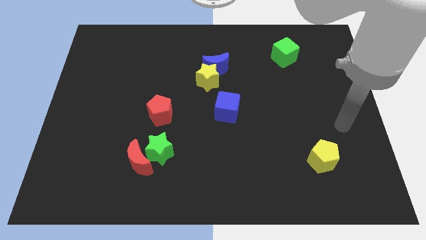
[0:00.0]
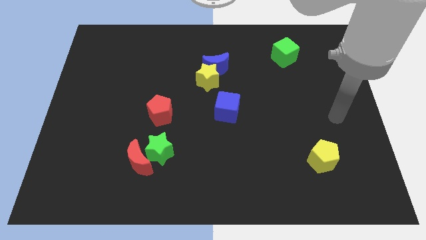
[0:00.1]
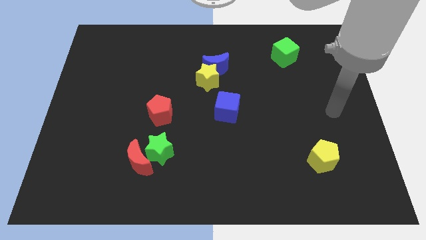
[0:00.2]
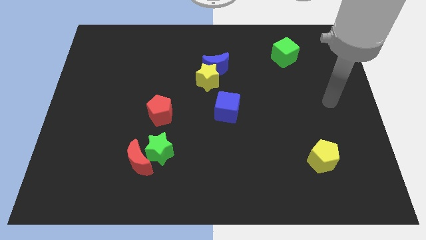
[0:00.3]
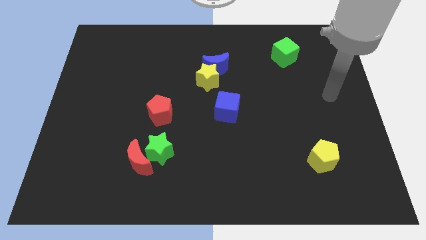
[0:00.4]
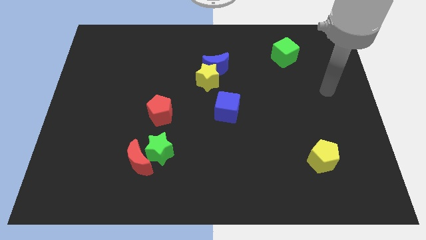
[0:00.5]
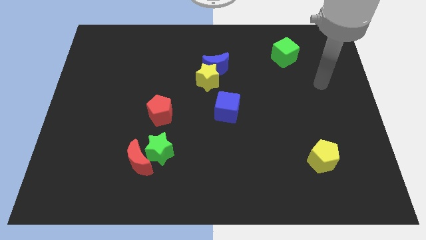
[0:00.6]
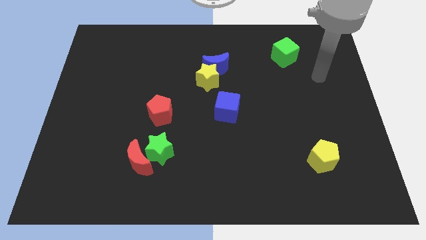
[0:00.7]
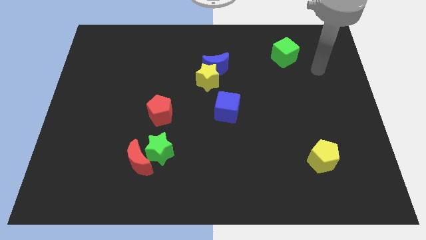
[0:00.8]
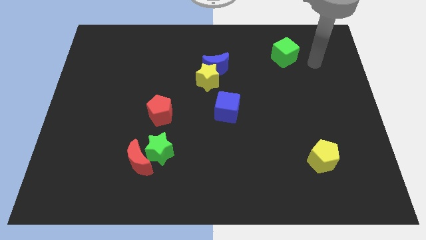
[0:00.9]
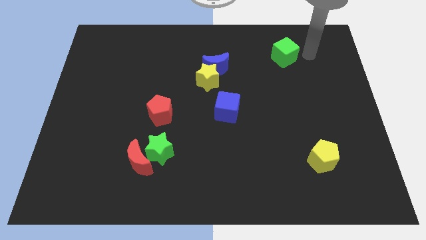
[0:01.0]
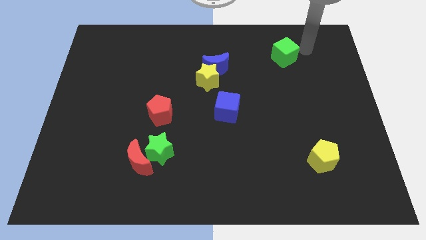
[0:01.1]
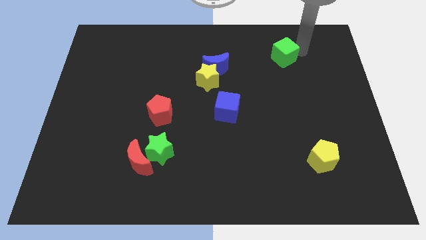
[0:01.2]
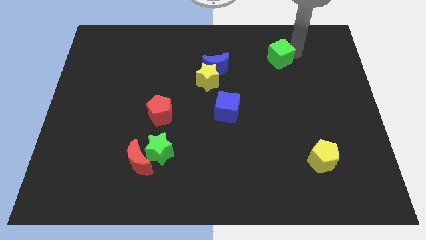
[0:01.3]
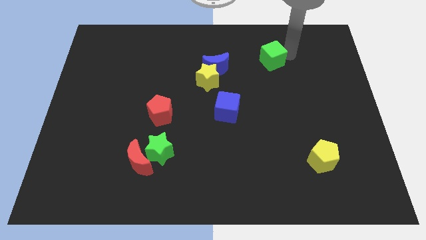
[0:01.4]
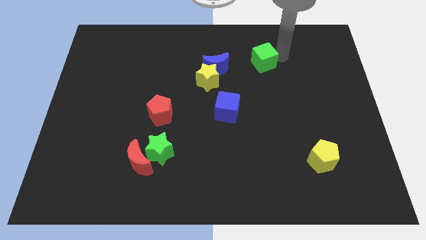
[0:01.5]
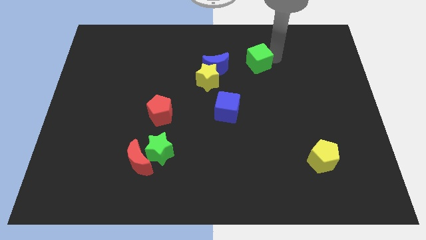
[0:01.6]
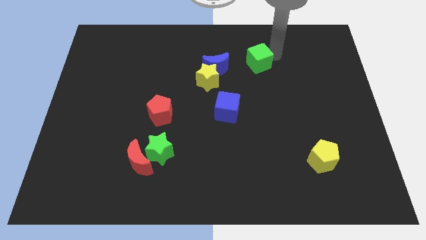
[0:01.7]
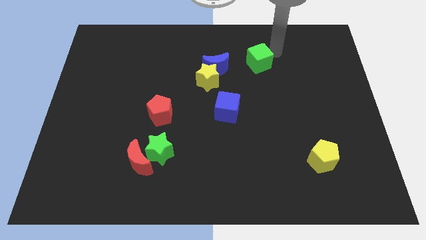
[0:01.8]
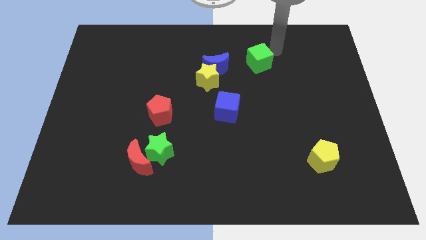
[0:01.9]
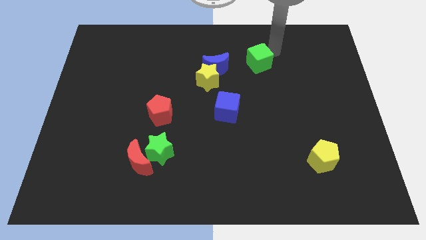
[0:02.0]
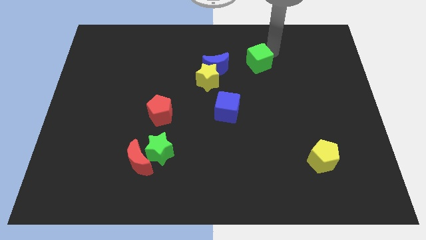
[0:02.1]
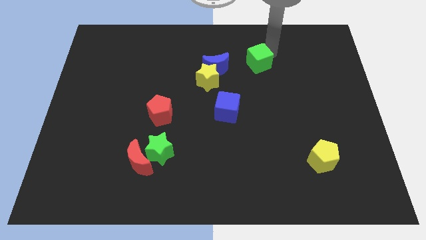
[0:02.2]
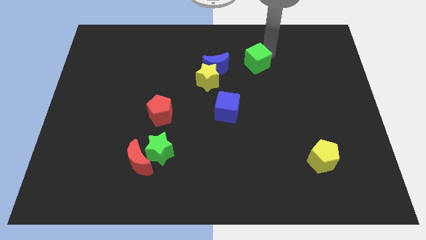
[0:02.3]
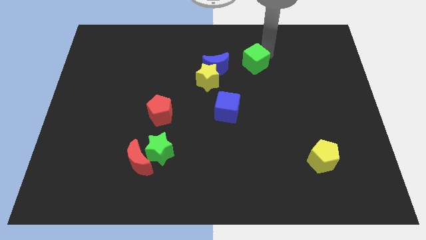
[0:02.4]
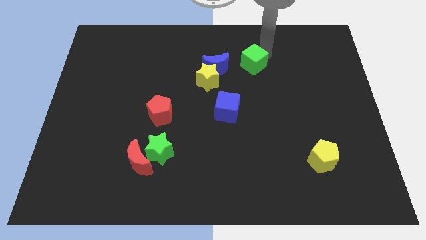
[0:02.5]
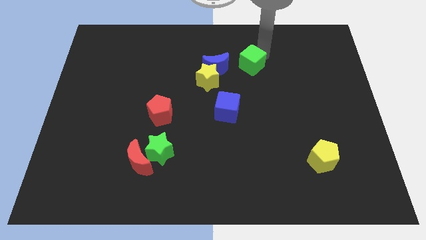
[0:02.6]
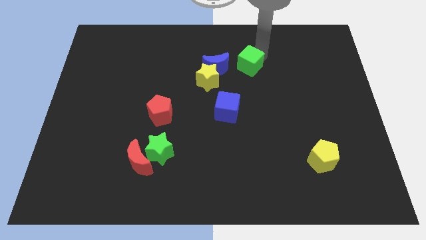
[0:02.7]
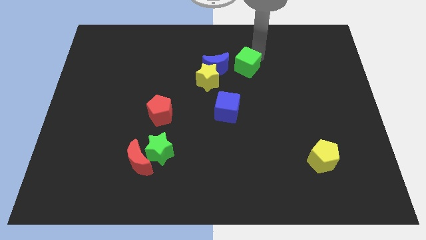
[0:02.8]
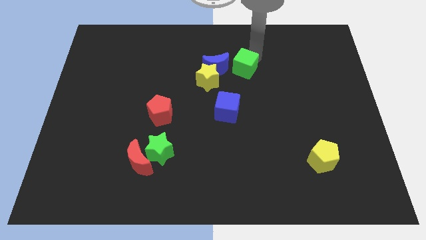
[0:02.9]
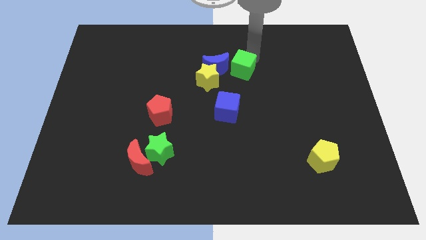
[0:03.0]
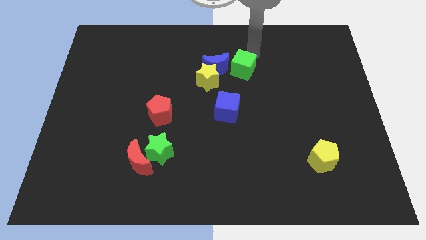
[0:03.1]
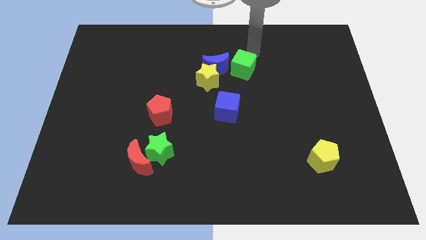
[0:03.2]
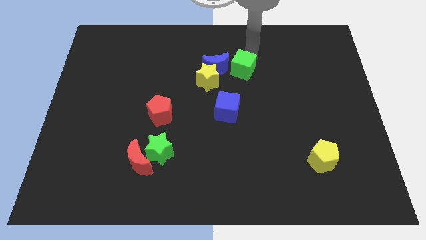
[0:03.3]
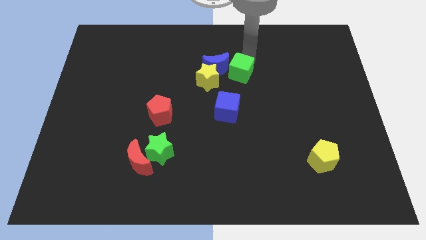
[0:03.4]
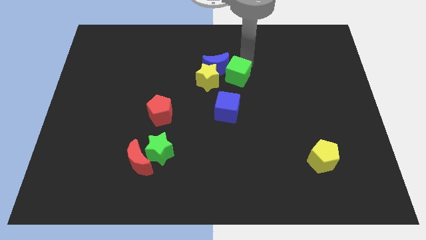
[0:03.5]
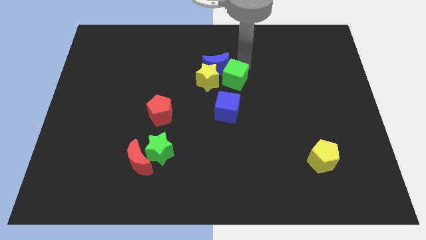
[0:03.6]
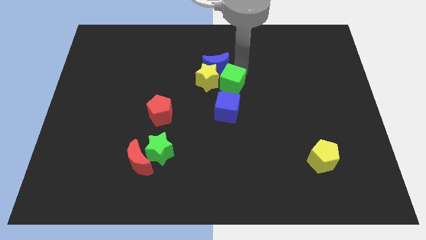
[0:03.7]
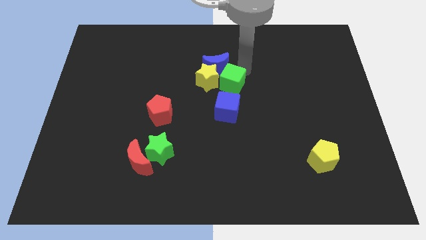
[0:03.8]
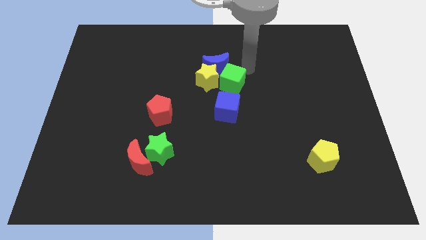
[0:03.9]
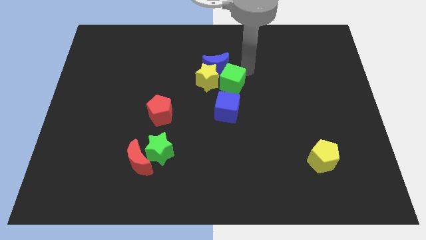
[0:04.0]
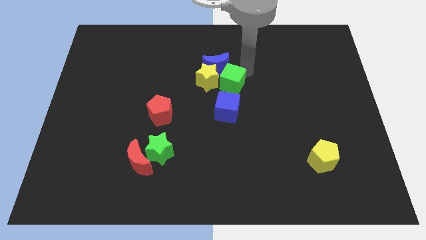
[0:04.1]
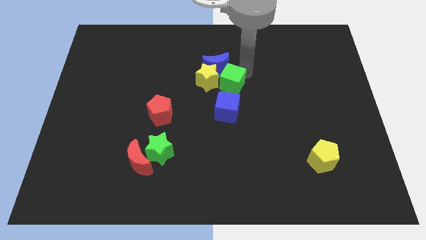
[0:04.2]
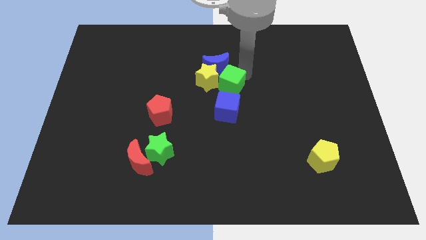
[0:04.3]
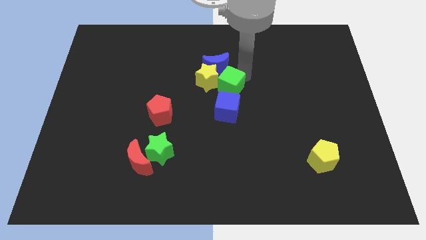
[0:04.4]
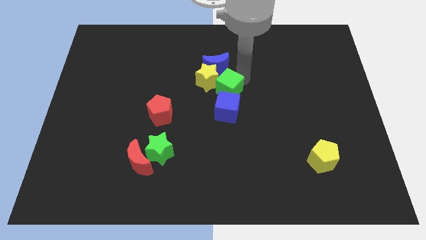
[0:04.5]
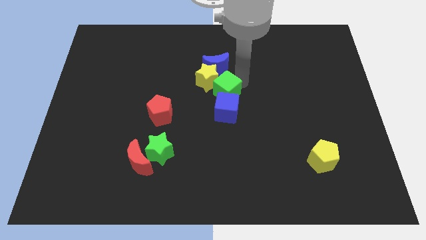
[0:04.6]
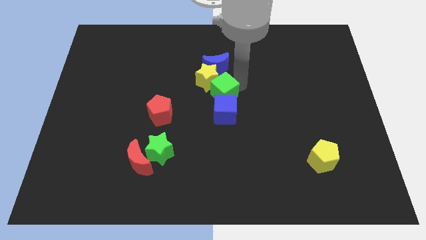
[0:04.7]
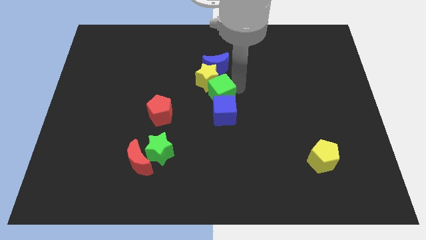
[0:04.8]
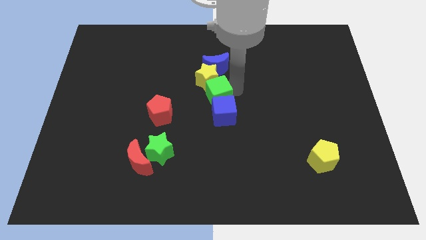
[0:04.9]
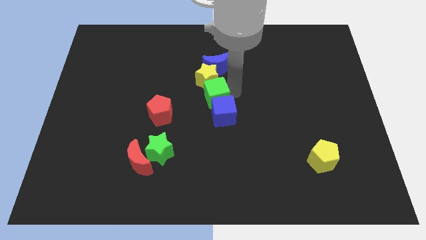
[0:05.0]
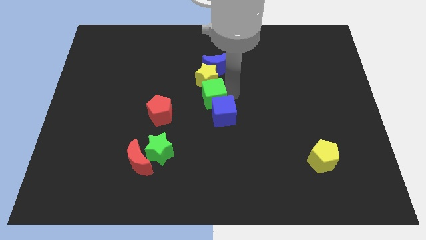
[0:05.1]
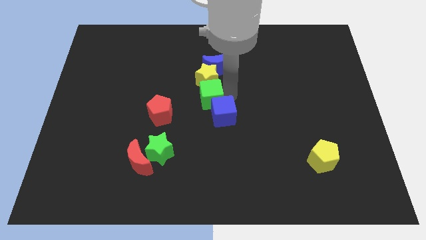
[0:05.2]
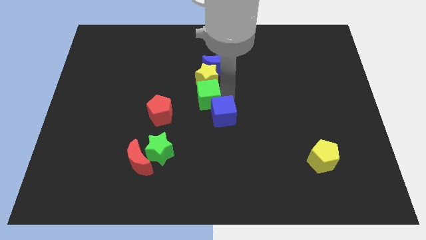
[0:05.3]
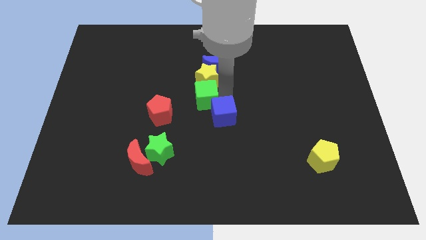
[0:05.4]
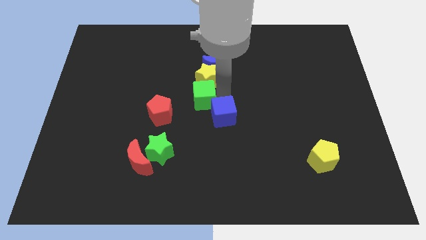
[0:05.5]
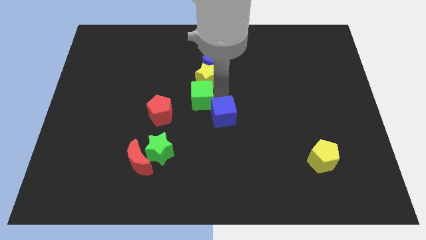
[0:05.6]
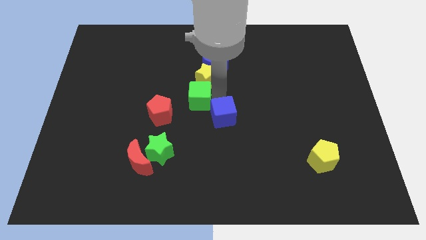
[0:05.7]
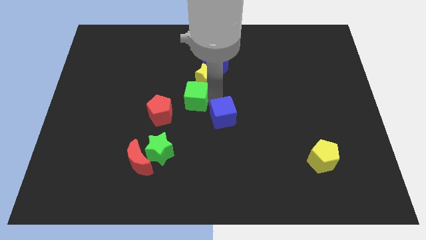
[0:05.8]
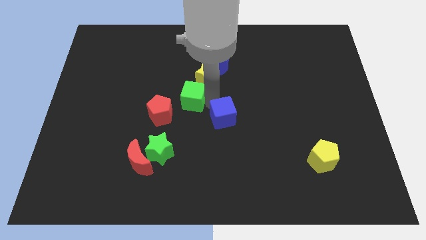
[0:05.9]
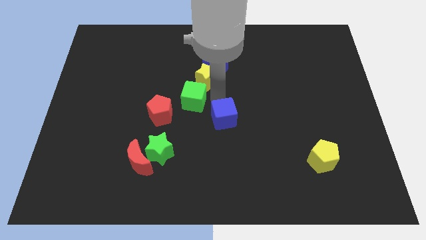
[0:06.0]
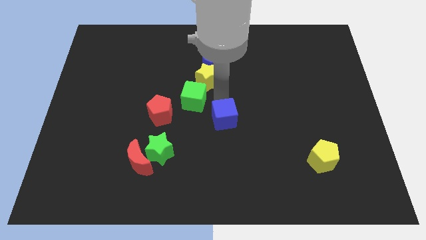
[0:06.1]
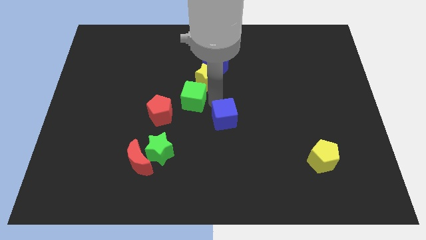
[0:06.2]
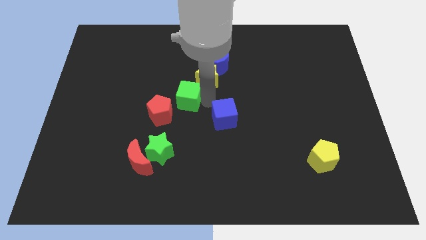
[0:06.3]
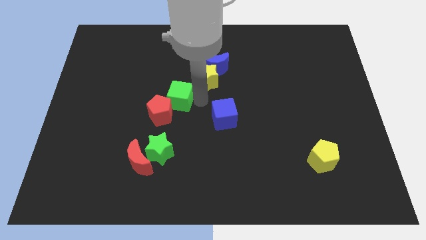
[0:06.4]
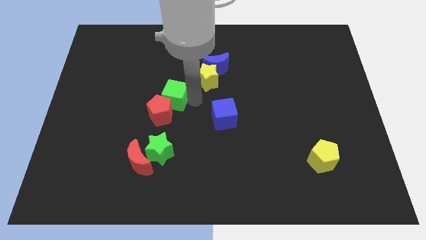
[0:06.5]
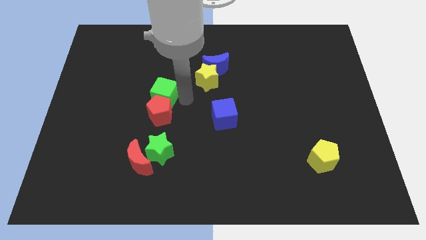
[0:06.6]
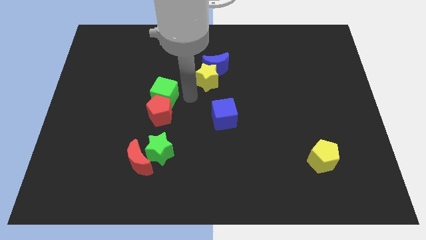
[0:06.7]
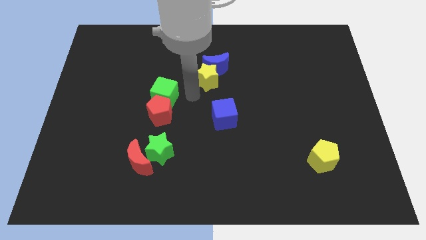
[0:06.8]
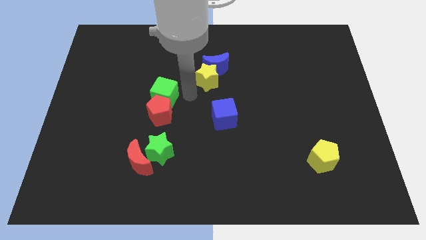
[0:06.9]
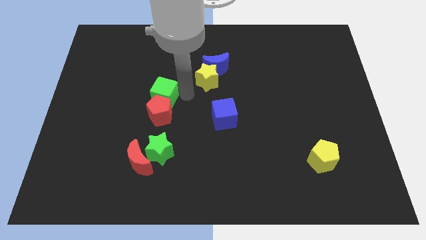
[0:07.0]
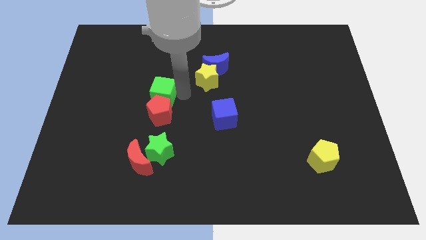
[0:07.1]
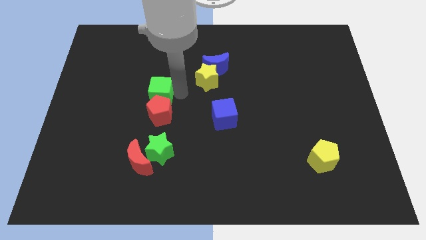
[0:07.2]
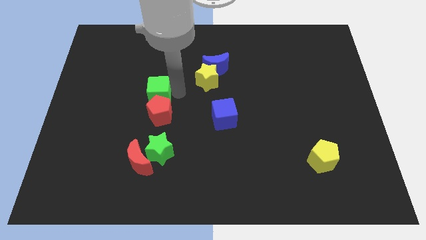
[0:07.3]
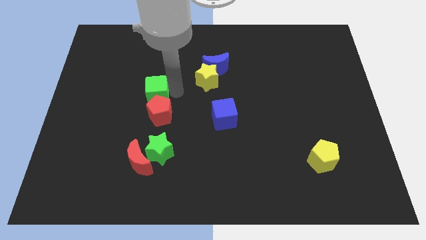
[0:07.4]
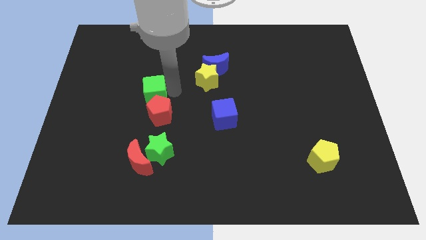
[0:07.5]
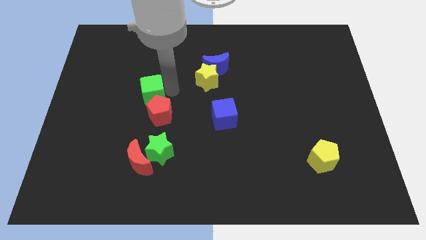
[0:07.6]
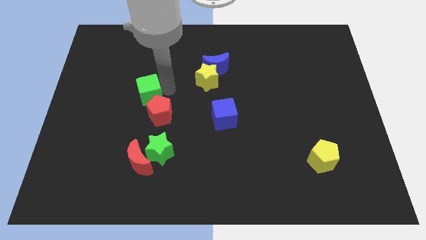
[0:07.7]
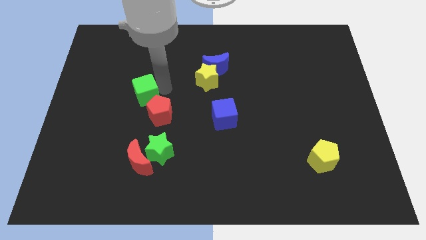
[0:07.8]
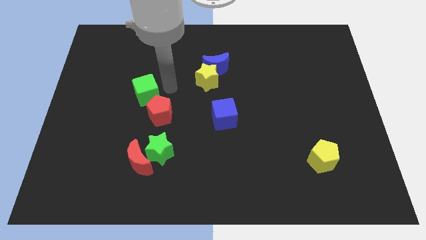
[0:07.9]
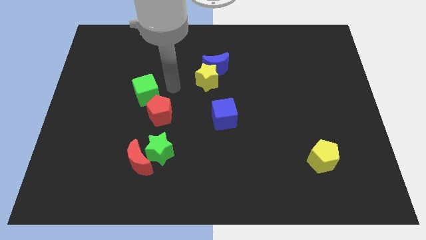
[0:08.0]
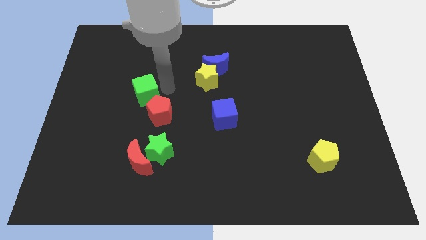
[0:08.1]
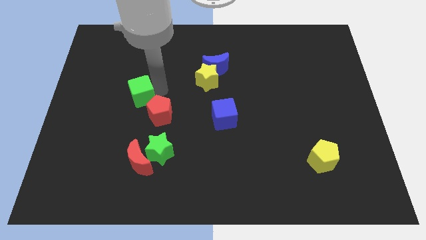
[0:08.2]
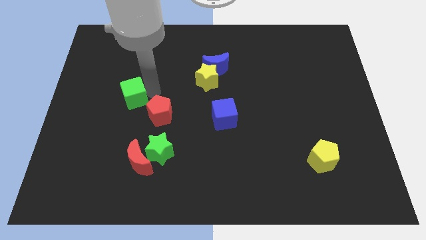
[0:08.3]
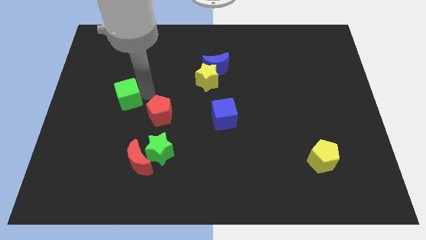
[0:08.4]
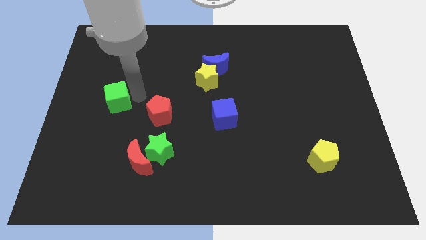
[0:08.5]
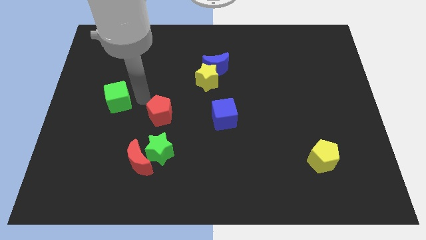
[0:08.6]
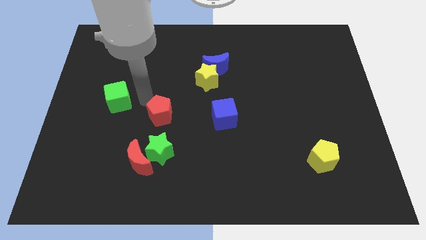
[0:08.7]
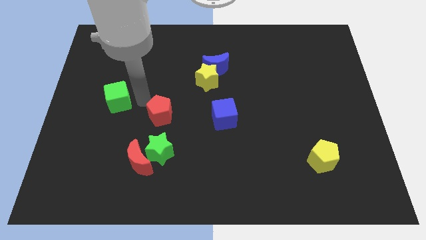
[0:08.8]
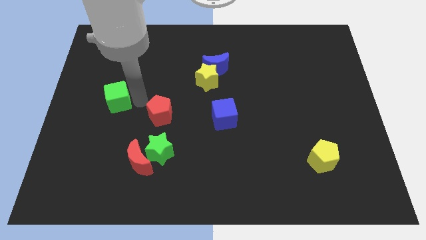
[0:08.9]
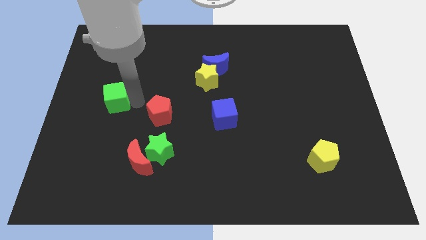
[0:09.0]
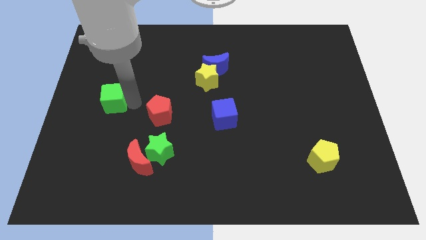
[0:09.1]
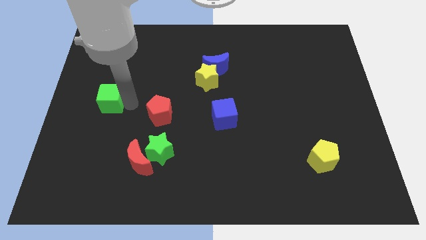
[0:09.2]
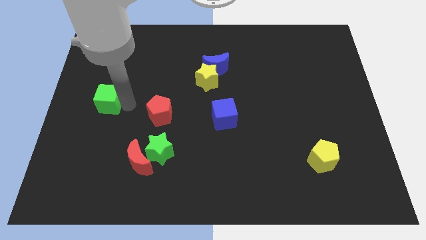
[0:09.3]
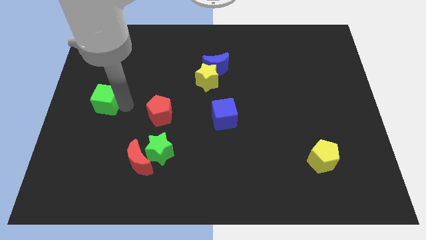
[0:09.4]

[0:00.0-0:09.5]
slide the green cube to the left side of the board
